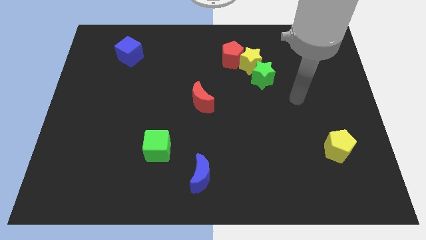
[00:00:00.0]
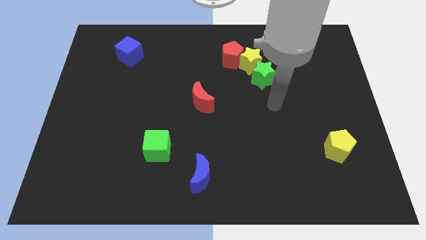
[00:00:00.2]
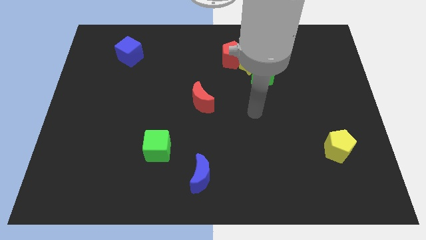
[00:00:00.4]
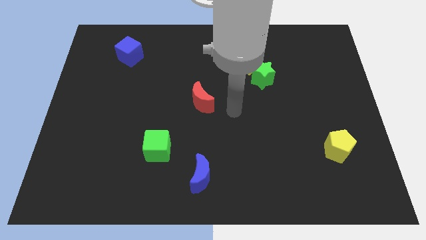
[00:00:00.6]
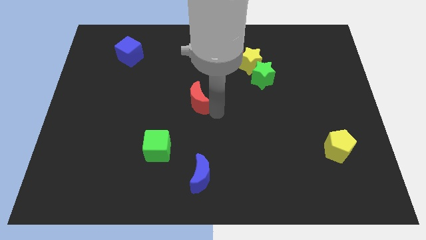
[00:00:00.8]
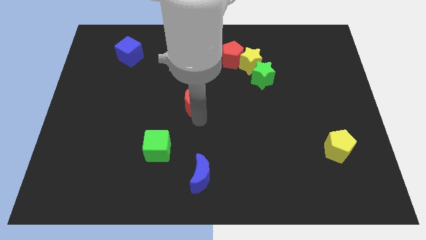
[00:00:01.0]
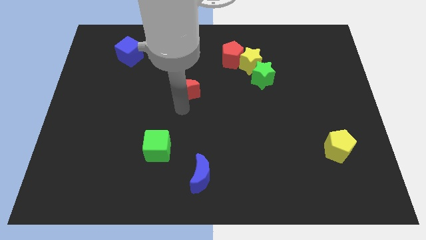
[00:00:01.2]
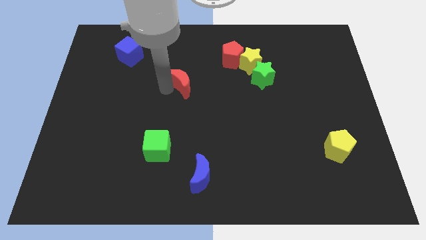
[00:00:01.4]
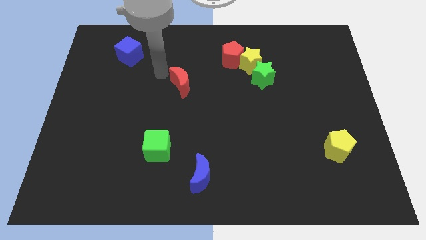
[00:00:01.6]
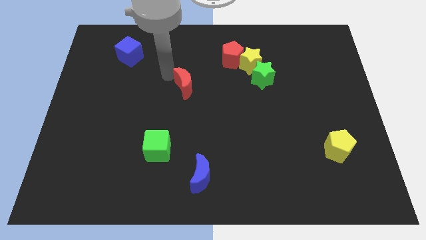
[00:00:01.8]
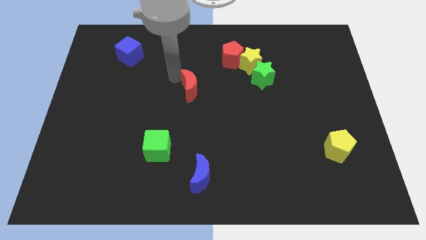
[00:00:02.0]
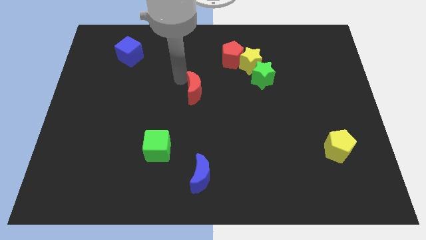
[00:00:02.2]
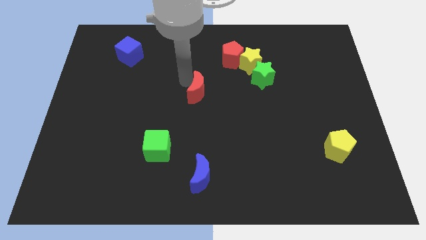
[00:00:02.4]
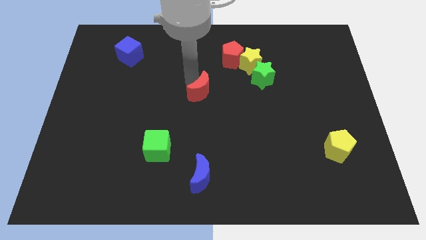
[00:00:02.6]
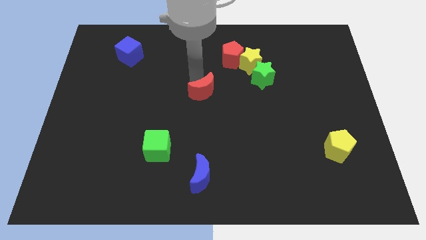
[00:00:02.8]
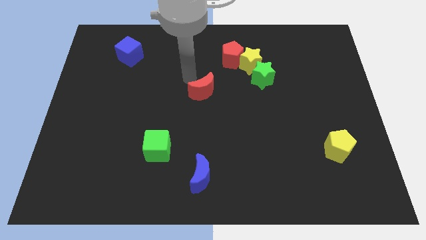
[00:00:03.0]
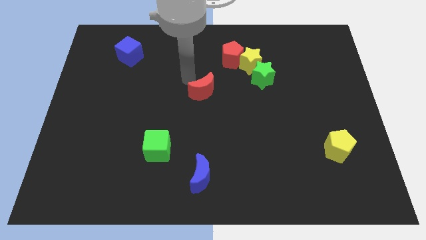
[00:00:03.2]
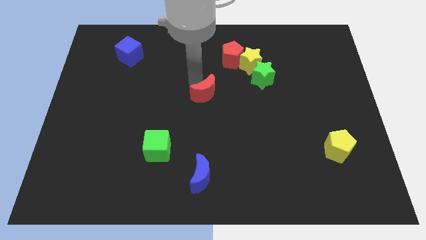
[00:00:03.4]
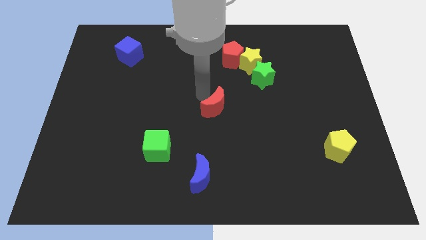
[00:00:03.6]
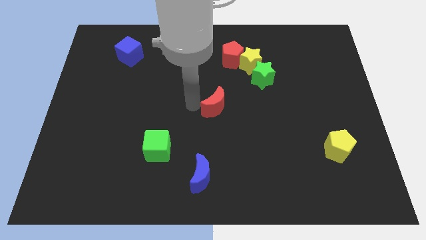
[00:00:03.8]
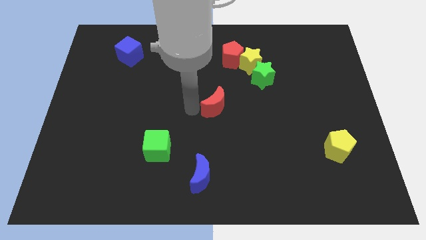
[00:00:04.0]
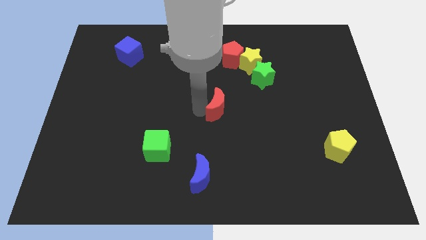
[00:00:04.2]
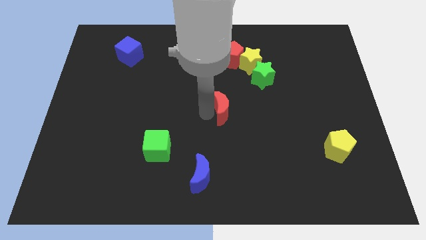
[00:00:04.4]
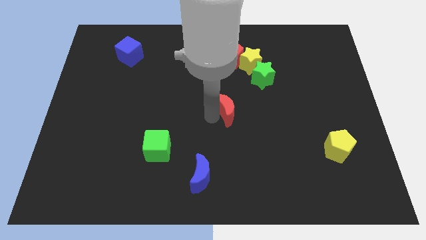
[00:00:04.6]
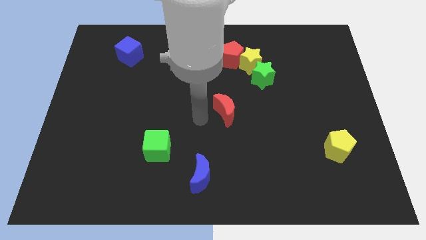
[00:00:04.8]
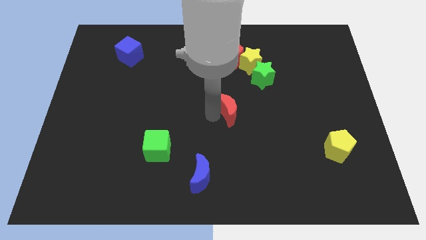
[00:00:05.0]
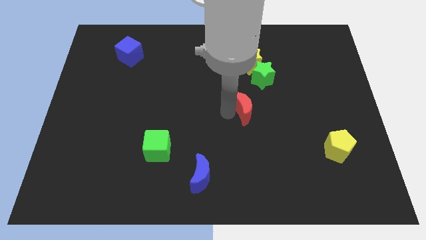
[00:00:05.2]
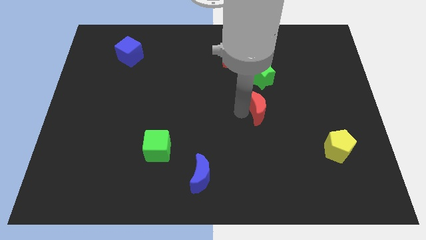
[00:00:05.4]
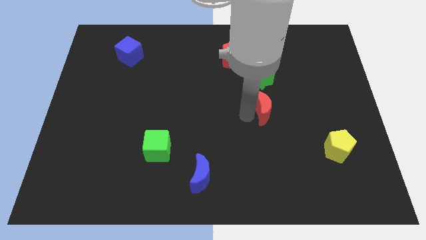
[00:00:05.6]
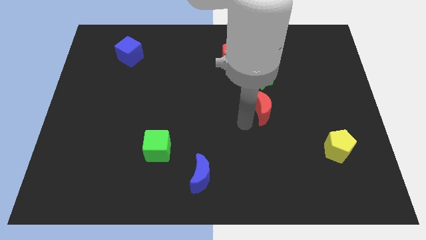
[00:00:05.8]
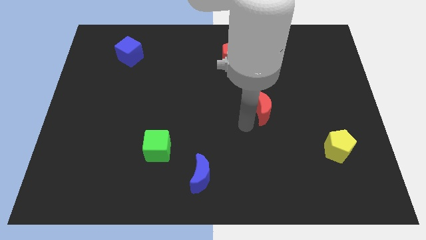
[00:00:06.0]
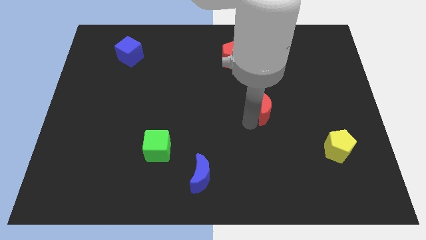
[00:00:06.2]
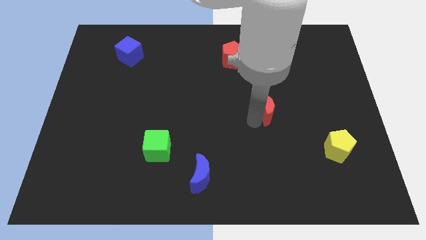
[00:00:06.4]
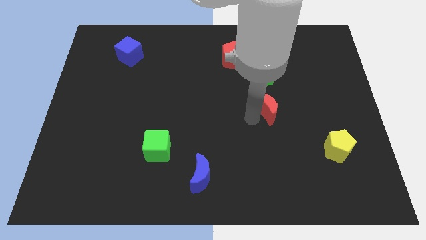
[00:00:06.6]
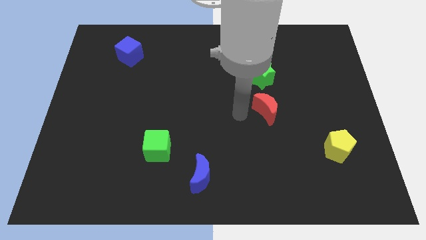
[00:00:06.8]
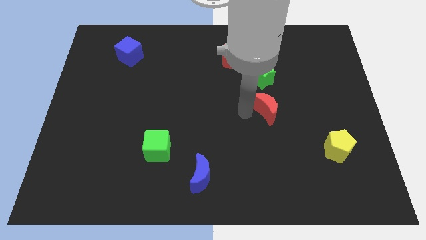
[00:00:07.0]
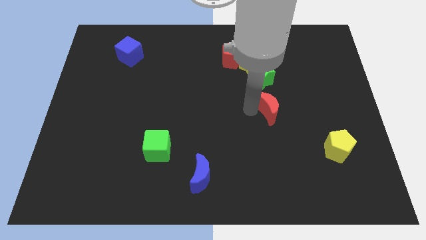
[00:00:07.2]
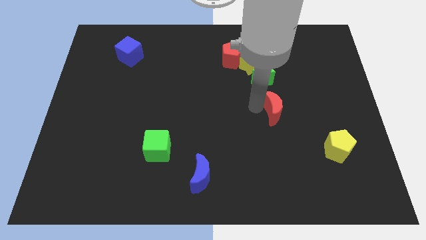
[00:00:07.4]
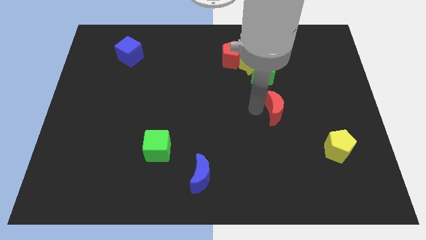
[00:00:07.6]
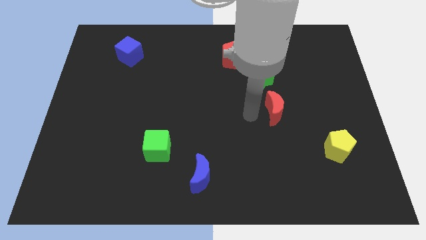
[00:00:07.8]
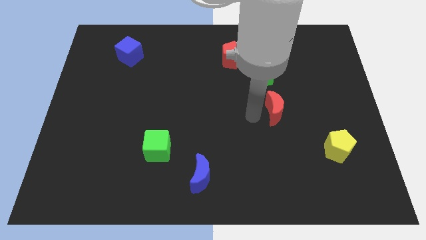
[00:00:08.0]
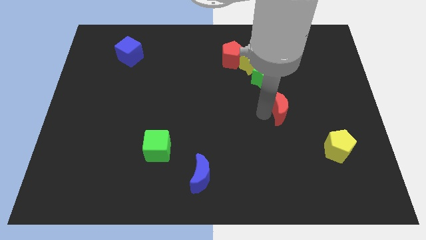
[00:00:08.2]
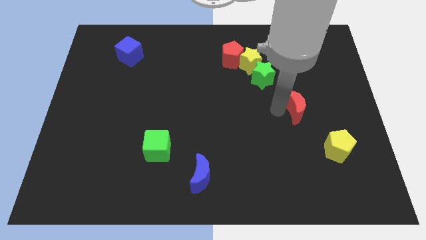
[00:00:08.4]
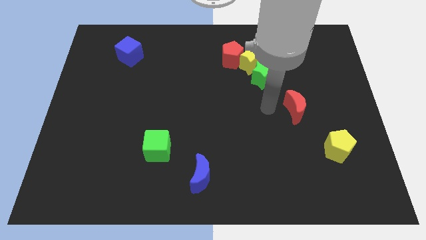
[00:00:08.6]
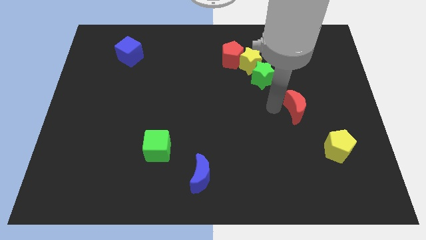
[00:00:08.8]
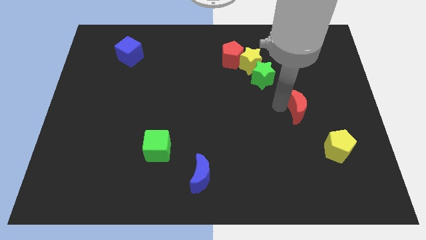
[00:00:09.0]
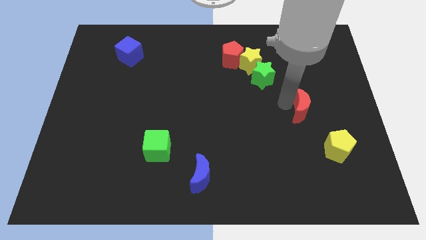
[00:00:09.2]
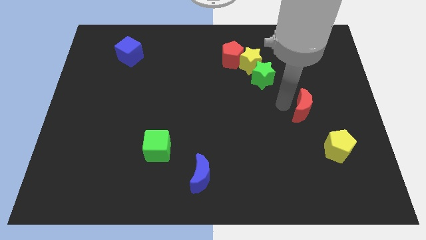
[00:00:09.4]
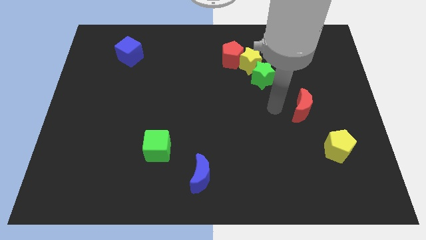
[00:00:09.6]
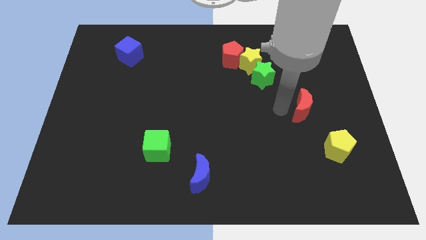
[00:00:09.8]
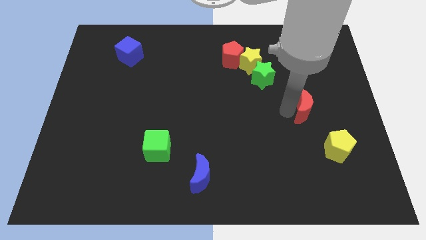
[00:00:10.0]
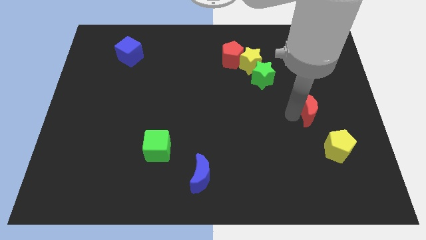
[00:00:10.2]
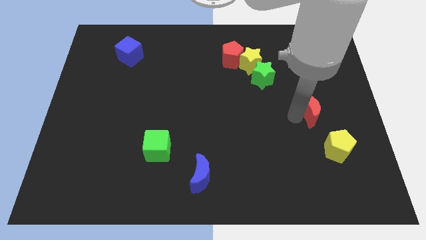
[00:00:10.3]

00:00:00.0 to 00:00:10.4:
move the red moon to the top side of the yellow pentagon

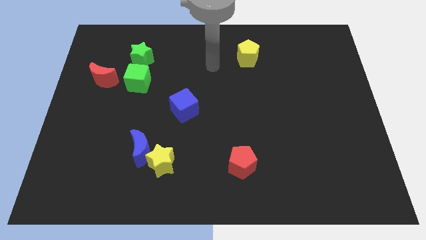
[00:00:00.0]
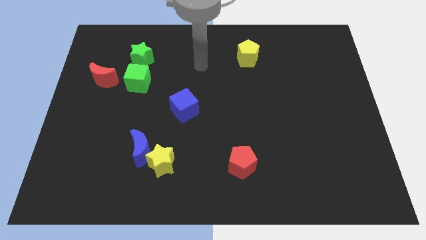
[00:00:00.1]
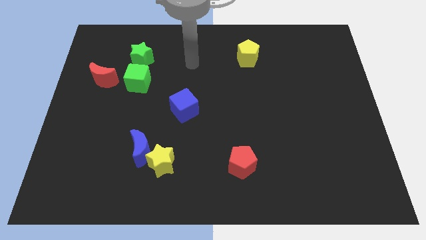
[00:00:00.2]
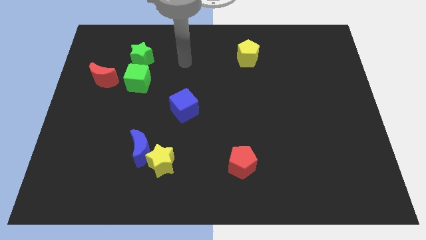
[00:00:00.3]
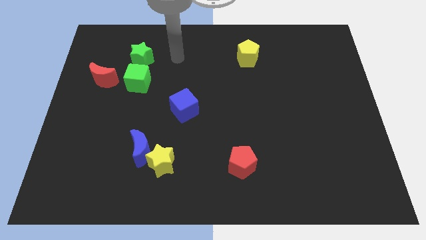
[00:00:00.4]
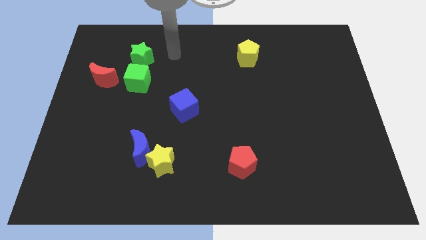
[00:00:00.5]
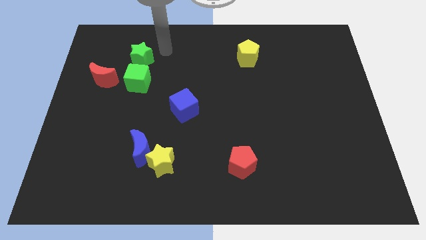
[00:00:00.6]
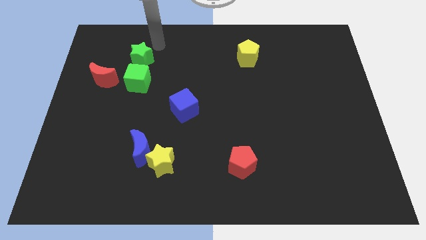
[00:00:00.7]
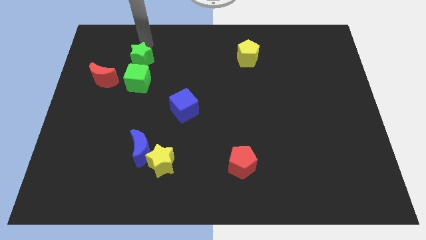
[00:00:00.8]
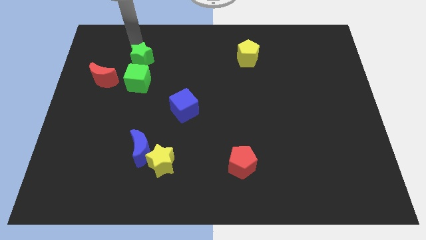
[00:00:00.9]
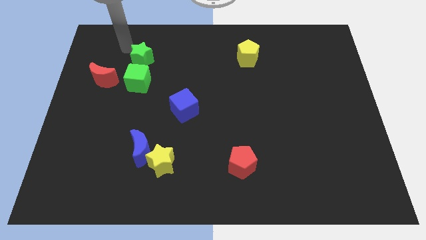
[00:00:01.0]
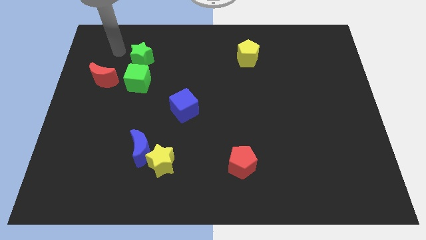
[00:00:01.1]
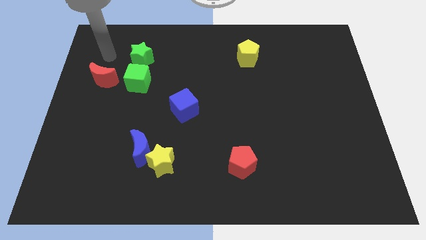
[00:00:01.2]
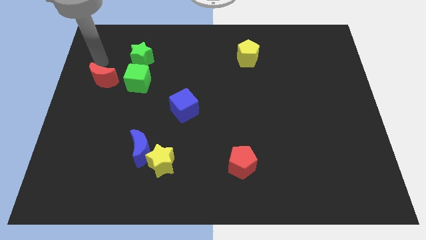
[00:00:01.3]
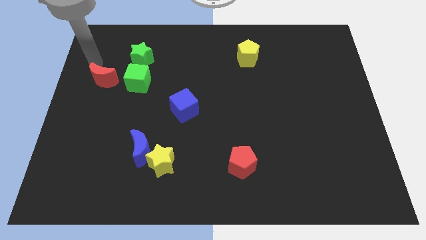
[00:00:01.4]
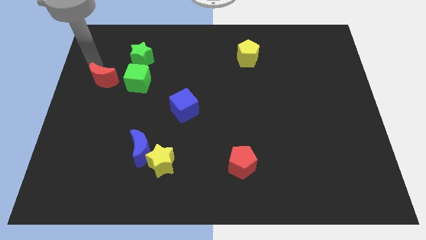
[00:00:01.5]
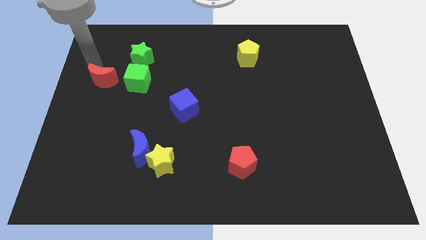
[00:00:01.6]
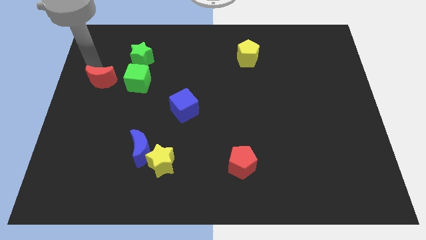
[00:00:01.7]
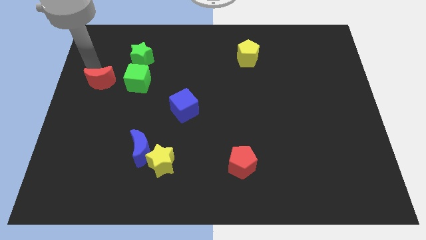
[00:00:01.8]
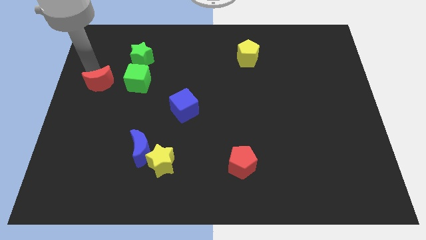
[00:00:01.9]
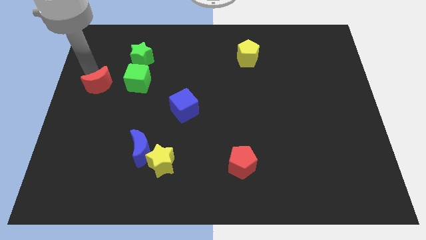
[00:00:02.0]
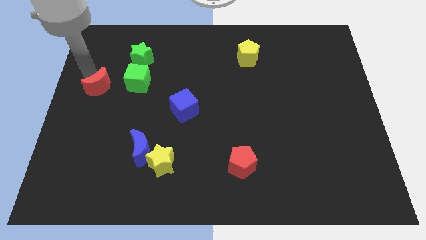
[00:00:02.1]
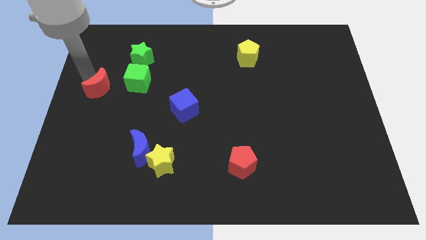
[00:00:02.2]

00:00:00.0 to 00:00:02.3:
push the red moon to the bottom left of the green cube
